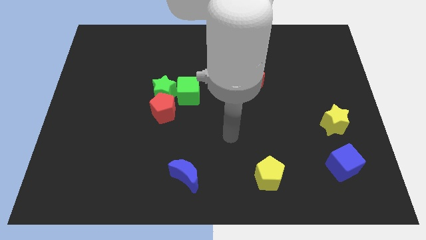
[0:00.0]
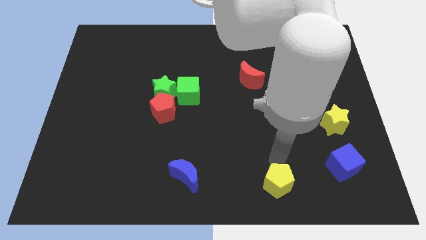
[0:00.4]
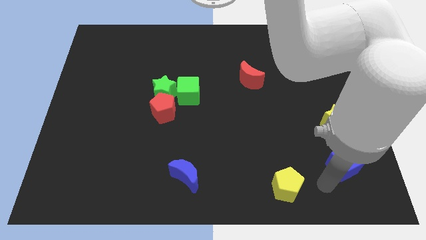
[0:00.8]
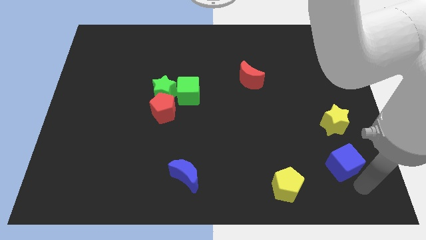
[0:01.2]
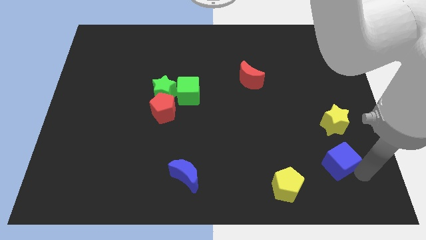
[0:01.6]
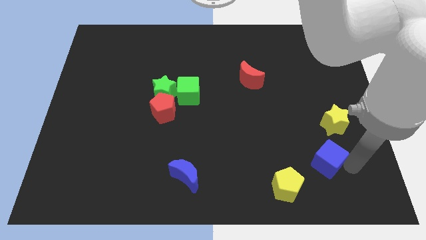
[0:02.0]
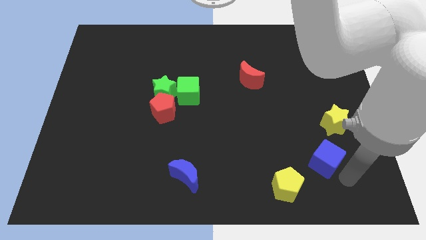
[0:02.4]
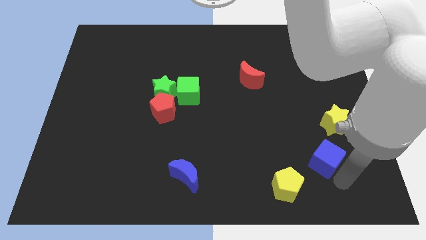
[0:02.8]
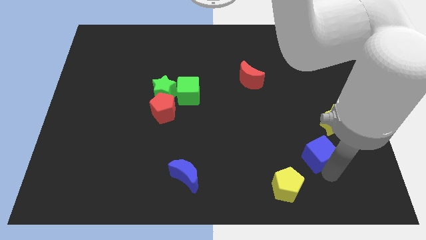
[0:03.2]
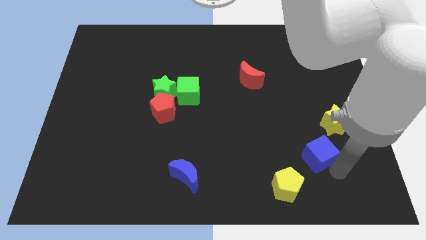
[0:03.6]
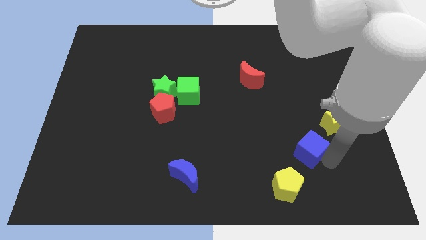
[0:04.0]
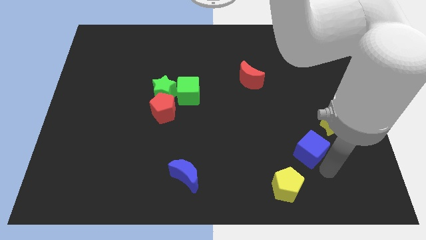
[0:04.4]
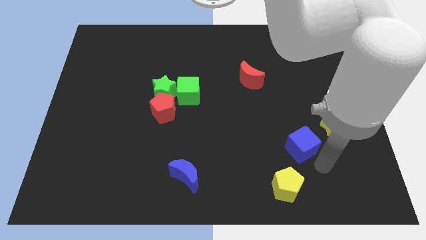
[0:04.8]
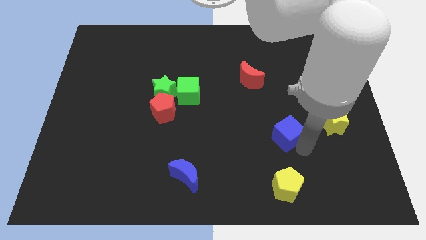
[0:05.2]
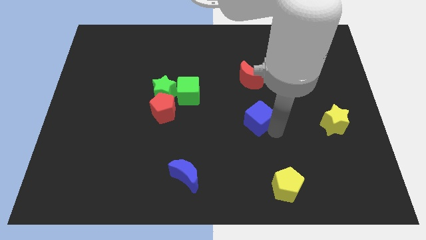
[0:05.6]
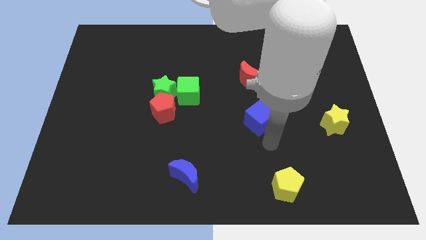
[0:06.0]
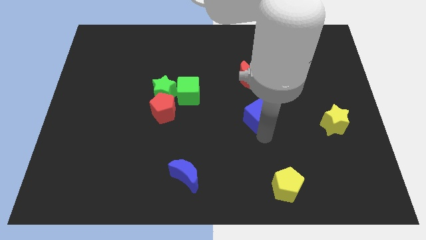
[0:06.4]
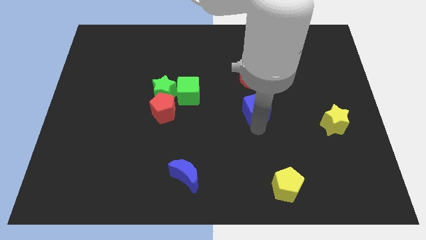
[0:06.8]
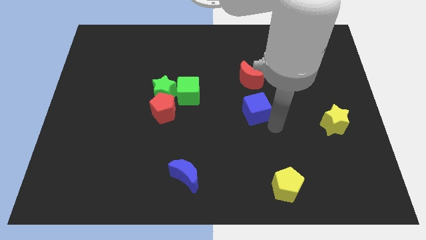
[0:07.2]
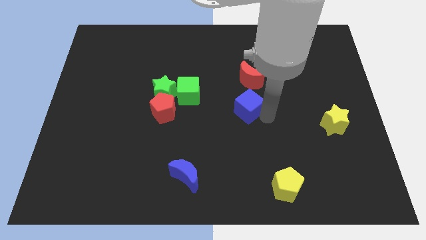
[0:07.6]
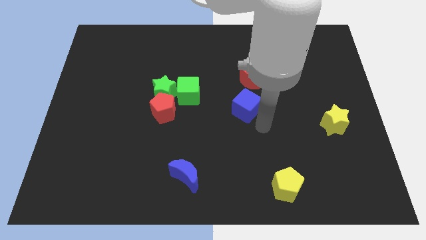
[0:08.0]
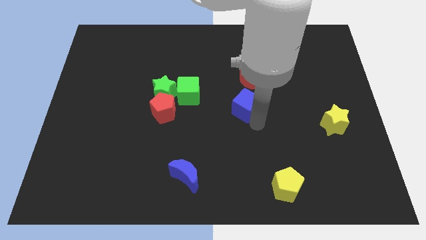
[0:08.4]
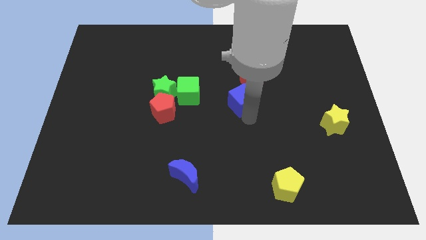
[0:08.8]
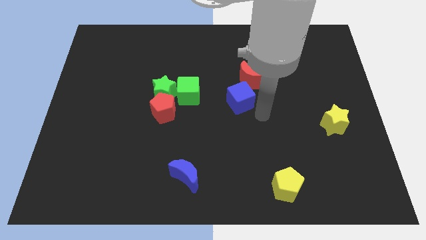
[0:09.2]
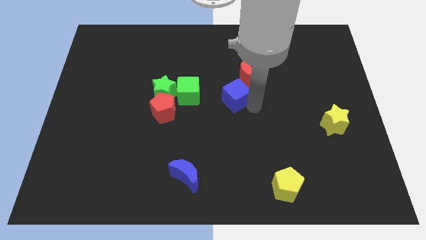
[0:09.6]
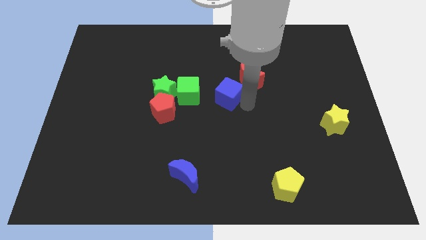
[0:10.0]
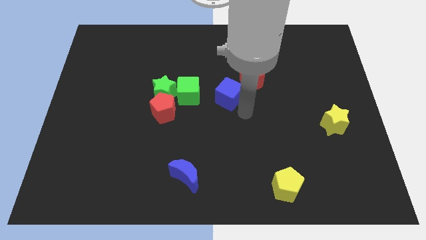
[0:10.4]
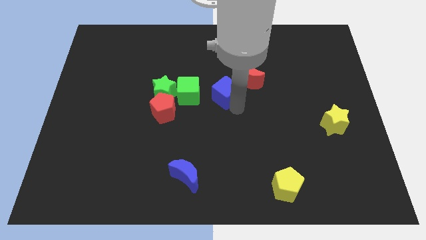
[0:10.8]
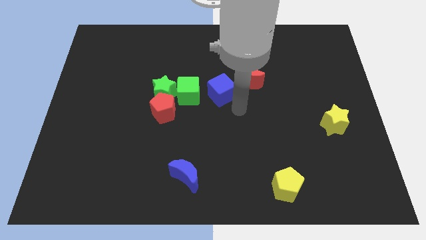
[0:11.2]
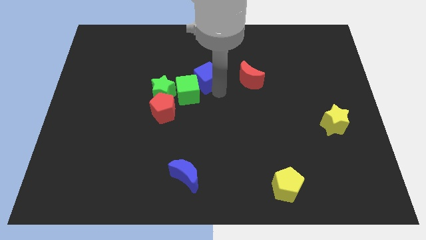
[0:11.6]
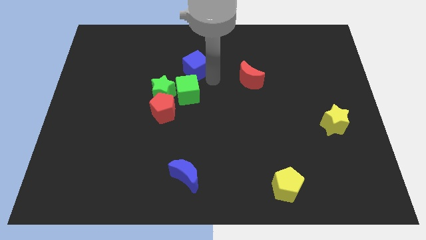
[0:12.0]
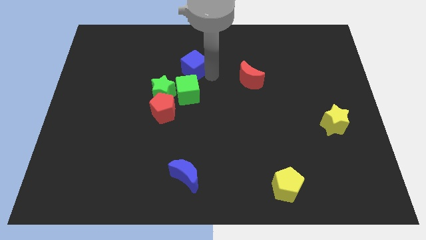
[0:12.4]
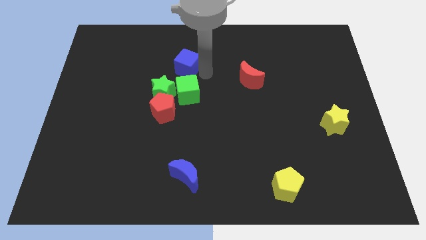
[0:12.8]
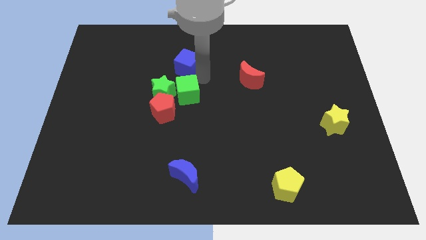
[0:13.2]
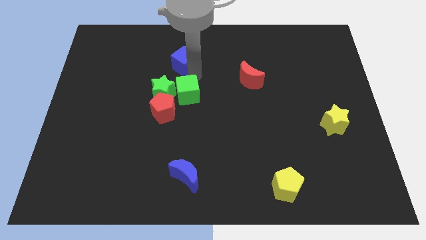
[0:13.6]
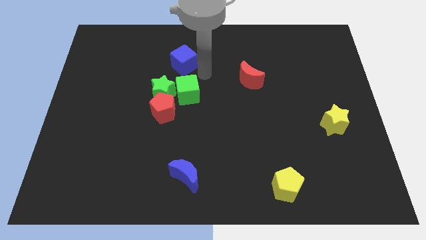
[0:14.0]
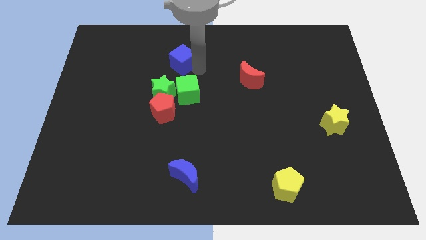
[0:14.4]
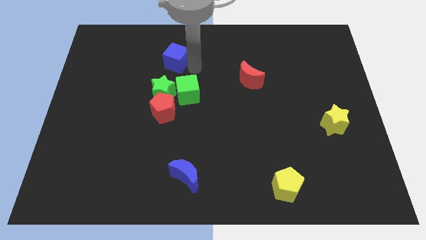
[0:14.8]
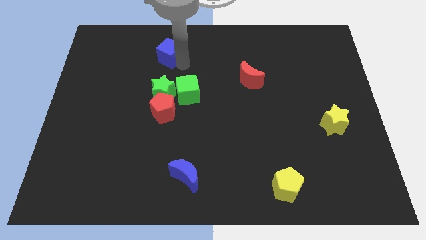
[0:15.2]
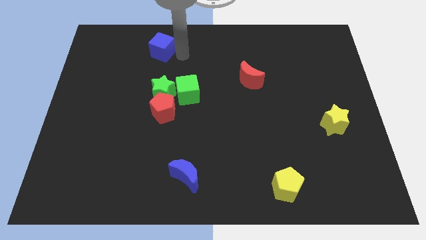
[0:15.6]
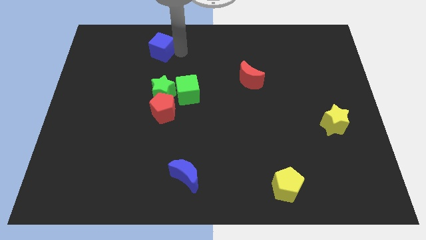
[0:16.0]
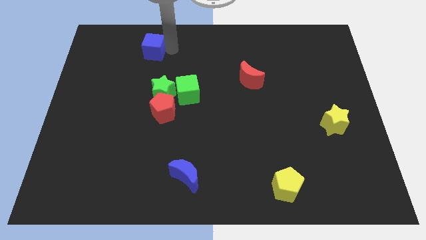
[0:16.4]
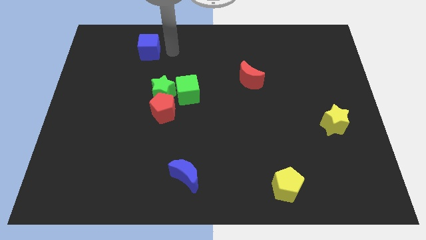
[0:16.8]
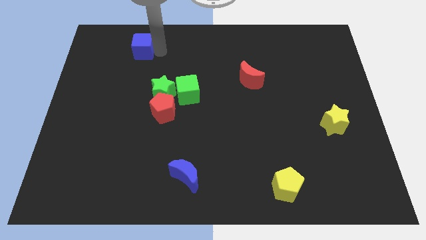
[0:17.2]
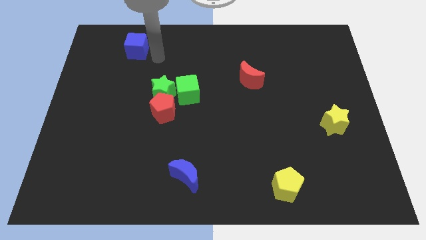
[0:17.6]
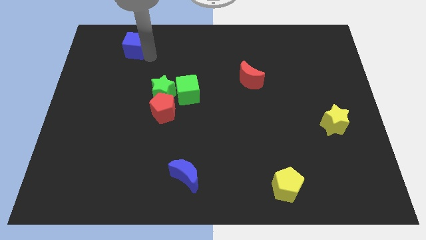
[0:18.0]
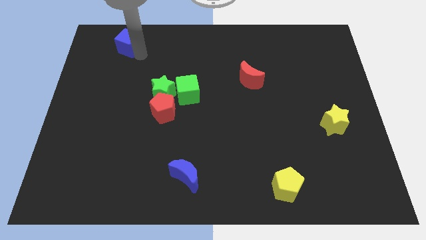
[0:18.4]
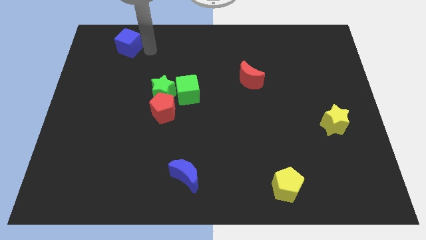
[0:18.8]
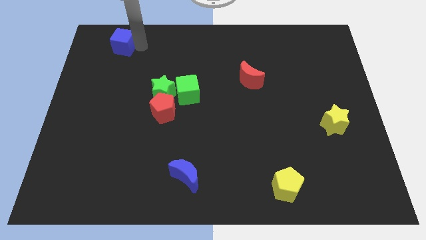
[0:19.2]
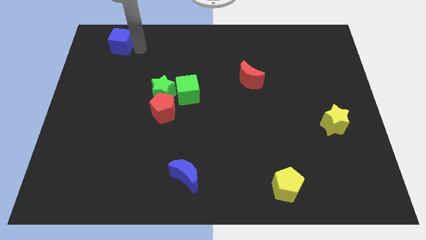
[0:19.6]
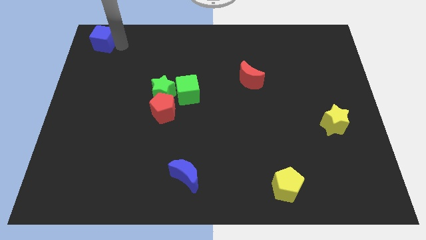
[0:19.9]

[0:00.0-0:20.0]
slide the blue cube to the upper left corner
